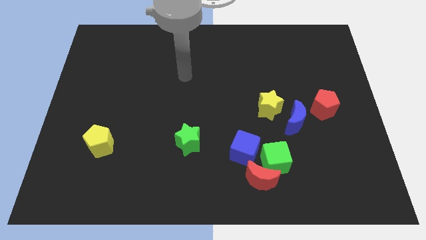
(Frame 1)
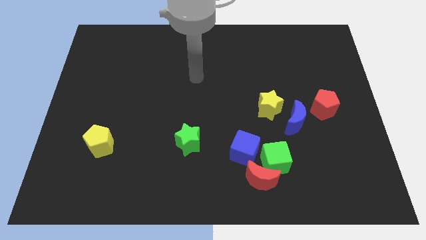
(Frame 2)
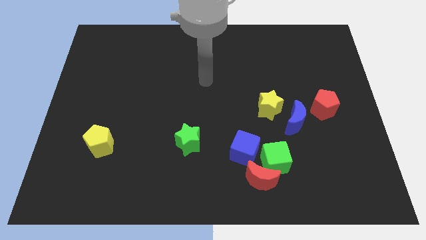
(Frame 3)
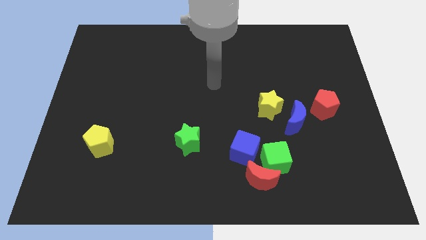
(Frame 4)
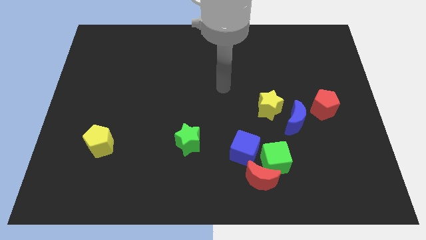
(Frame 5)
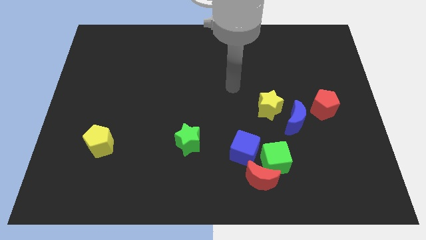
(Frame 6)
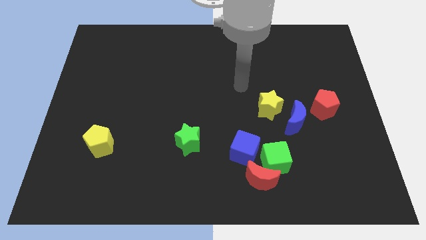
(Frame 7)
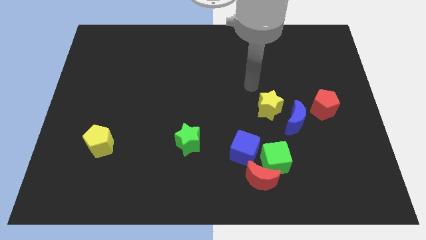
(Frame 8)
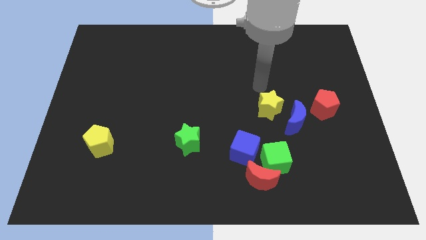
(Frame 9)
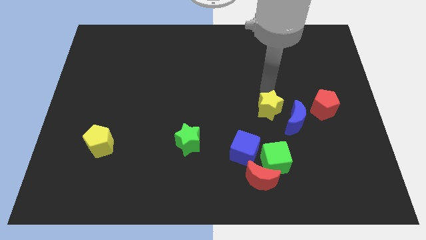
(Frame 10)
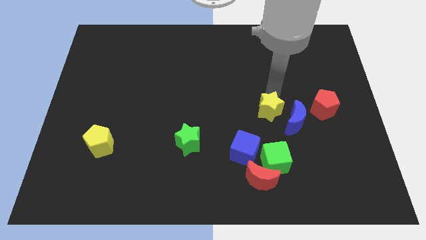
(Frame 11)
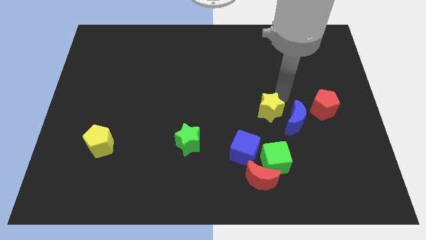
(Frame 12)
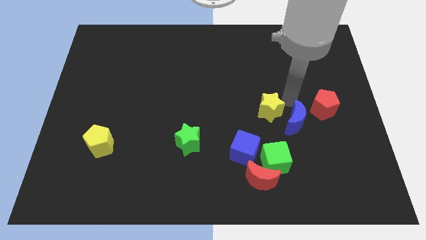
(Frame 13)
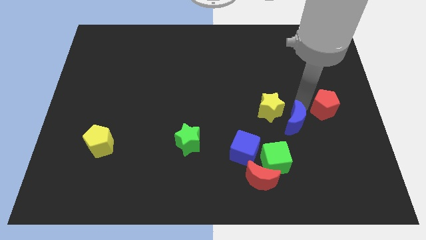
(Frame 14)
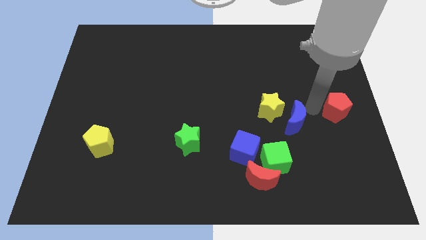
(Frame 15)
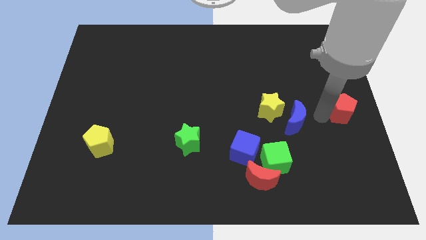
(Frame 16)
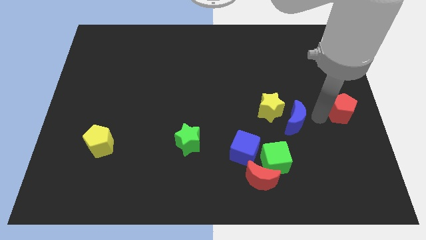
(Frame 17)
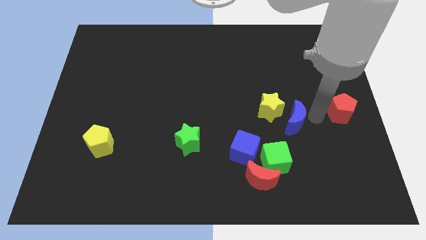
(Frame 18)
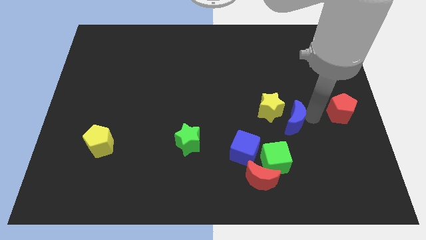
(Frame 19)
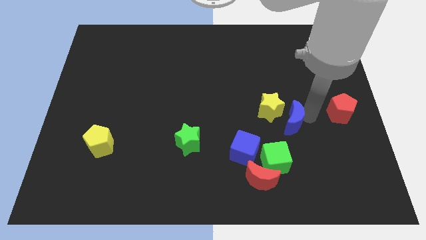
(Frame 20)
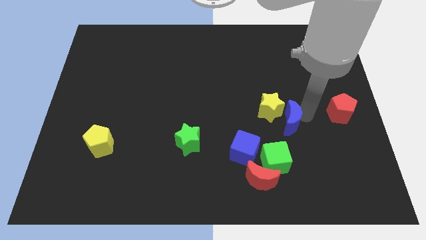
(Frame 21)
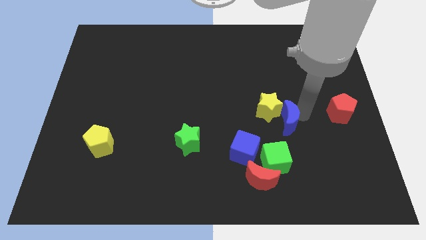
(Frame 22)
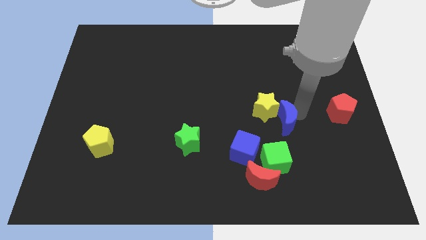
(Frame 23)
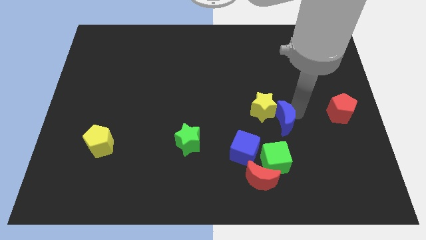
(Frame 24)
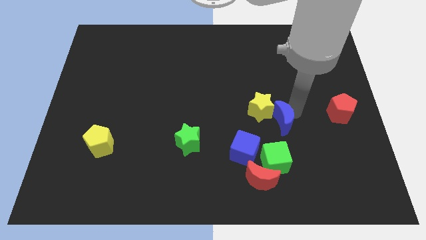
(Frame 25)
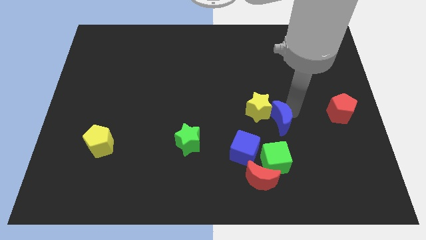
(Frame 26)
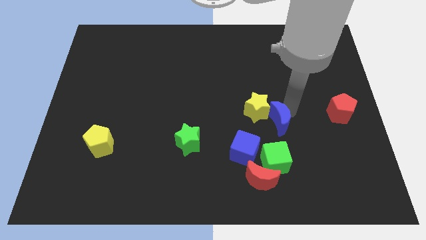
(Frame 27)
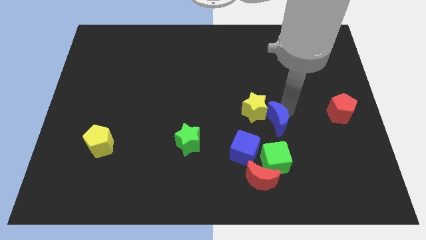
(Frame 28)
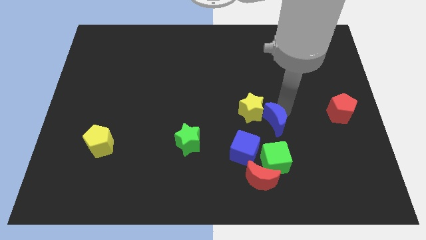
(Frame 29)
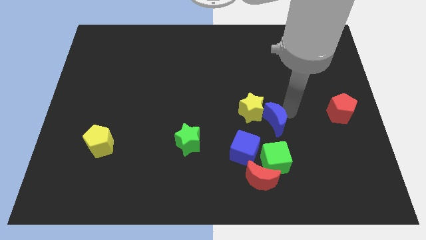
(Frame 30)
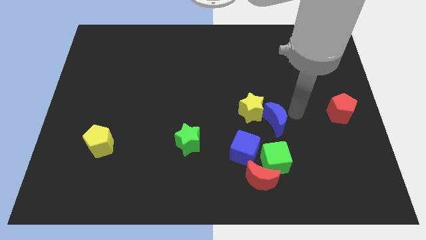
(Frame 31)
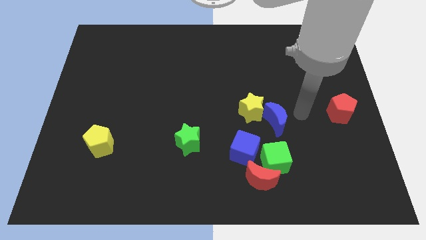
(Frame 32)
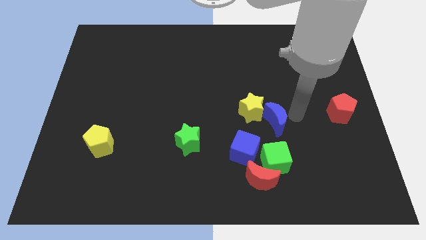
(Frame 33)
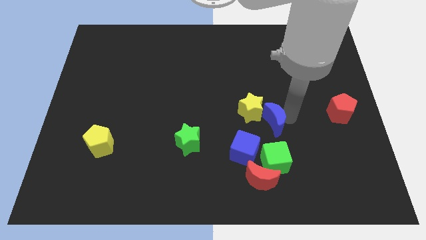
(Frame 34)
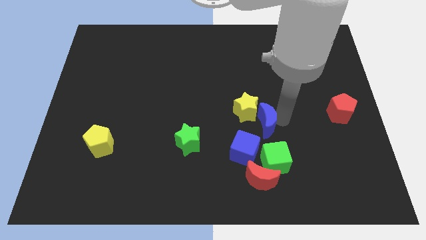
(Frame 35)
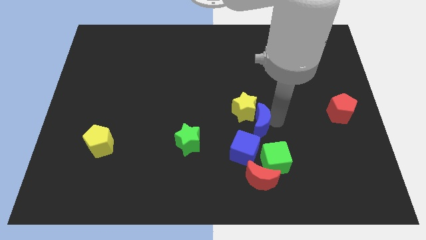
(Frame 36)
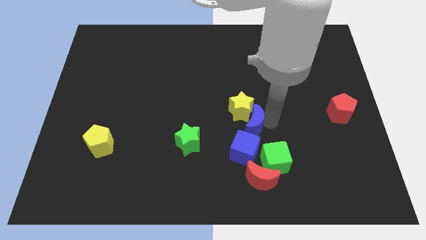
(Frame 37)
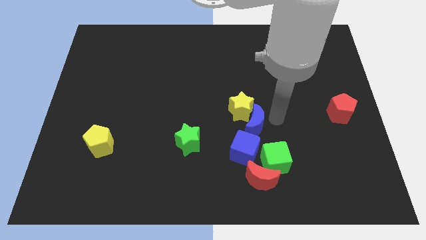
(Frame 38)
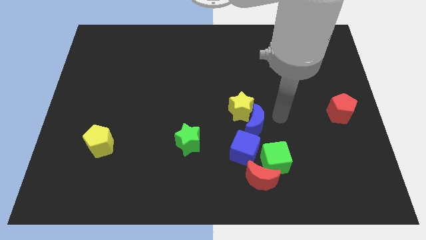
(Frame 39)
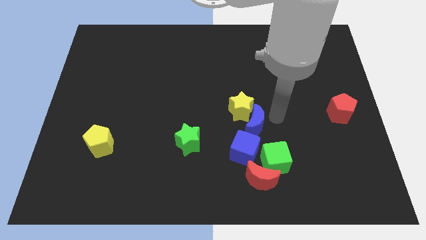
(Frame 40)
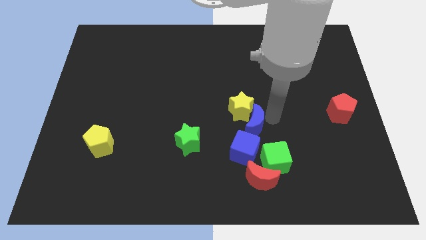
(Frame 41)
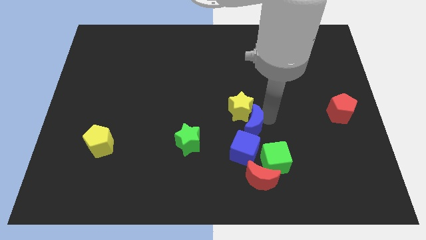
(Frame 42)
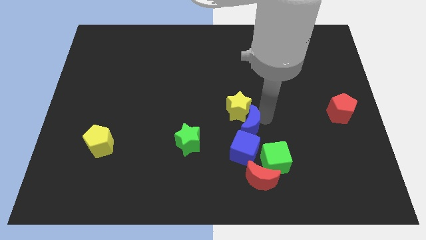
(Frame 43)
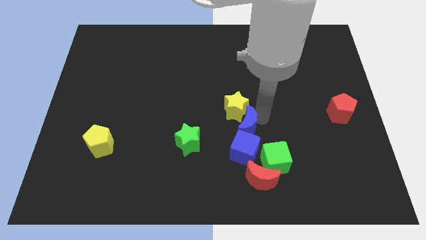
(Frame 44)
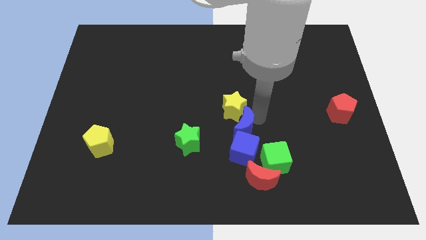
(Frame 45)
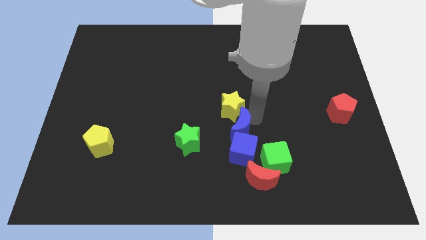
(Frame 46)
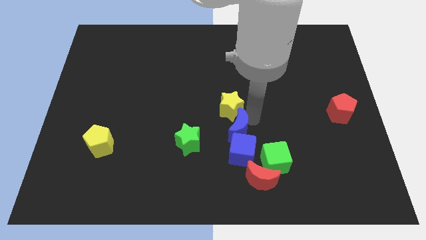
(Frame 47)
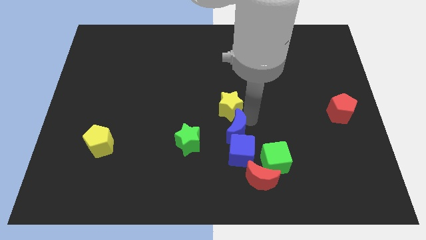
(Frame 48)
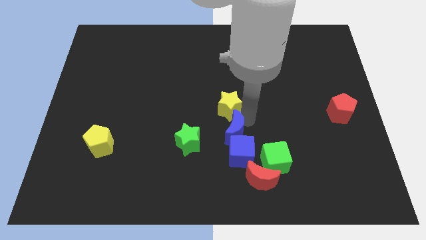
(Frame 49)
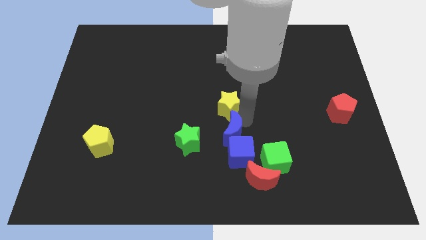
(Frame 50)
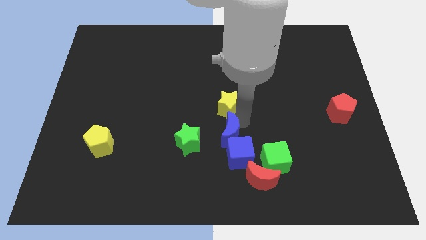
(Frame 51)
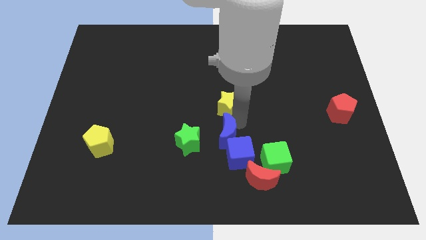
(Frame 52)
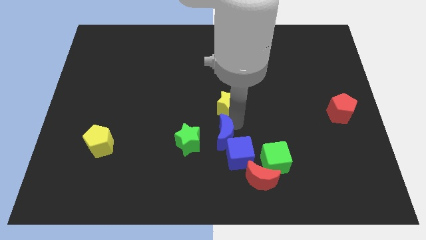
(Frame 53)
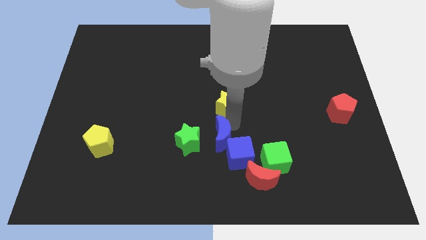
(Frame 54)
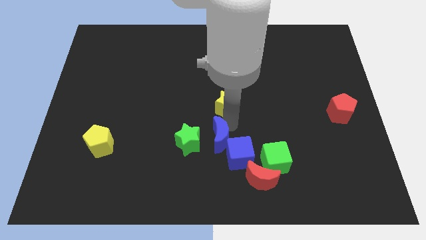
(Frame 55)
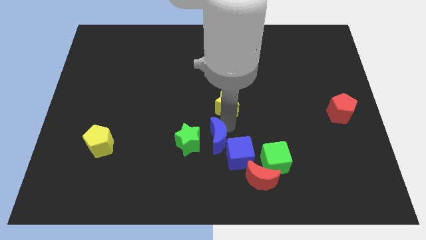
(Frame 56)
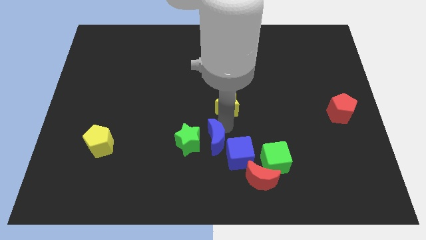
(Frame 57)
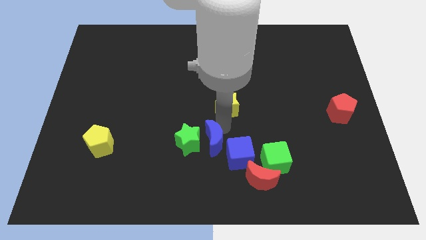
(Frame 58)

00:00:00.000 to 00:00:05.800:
slide the blue moon to the green star

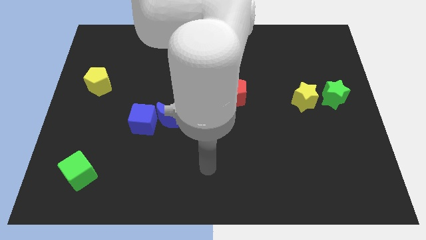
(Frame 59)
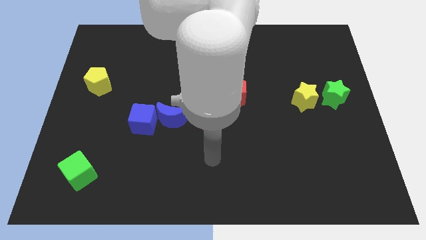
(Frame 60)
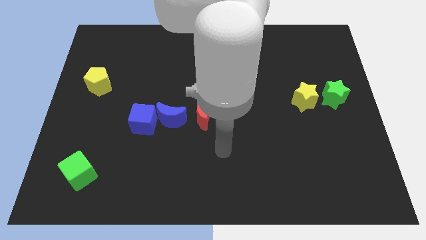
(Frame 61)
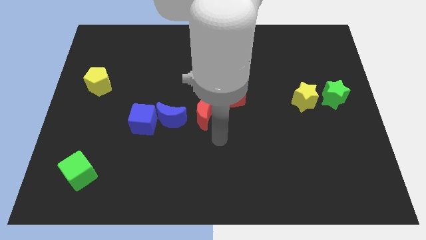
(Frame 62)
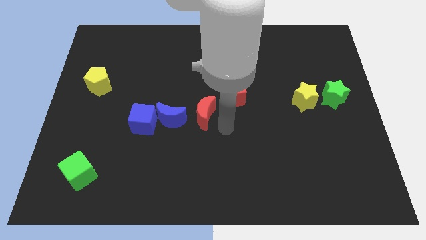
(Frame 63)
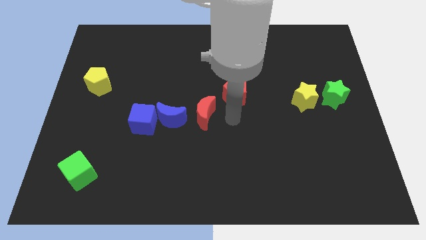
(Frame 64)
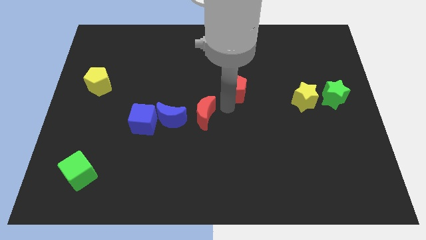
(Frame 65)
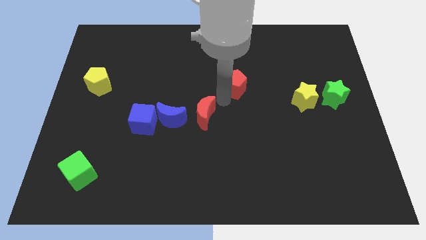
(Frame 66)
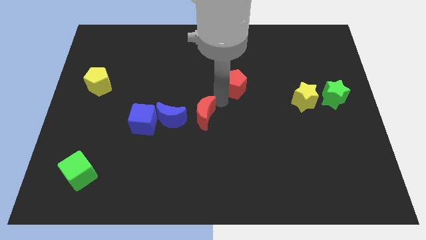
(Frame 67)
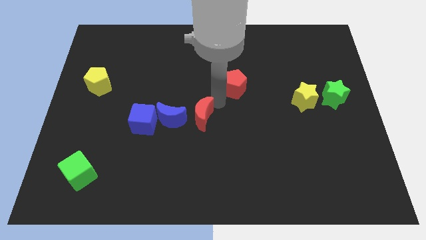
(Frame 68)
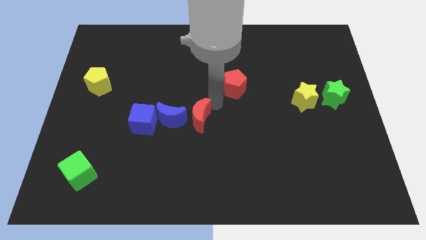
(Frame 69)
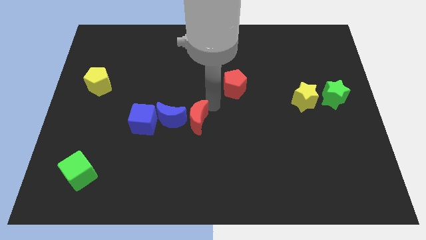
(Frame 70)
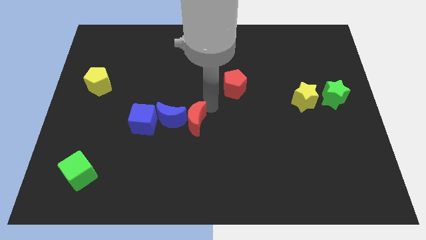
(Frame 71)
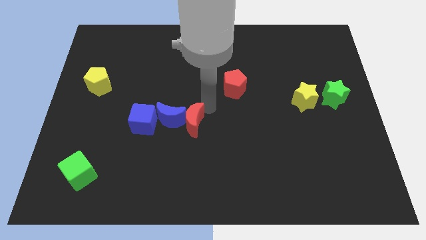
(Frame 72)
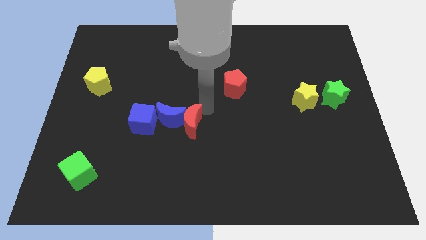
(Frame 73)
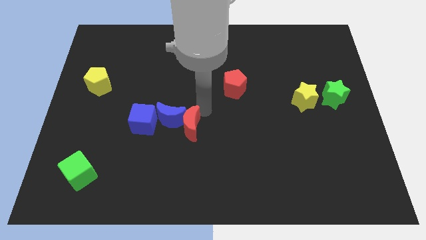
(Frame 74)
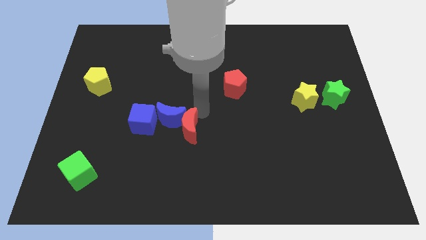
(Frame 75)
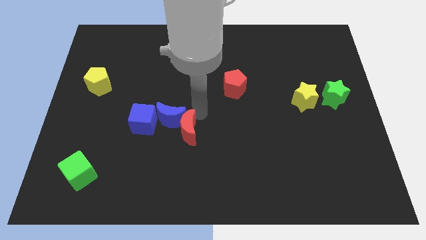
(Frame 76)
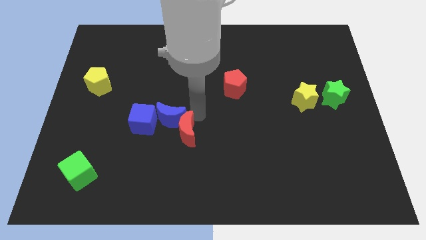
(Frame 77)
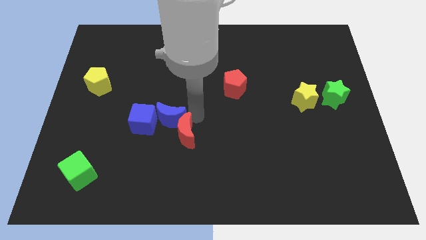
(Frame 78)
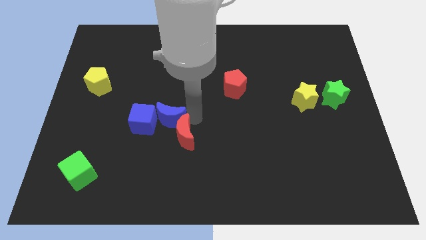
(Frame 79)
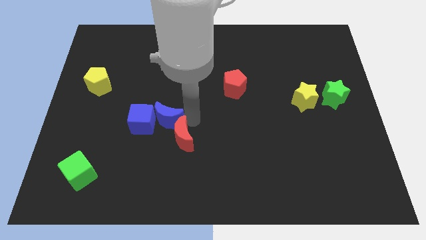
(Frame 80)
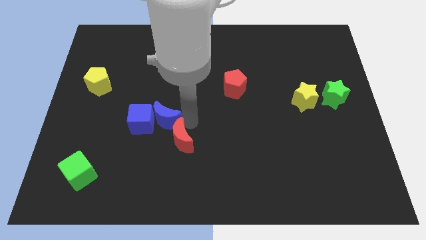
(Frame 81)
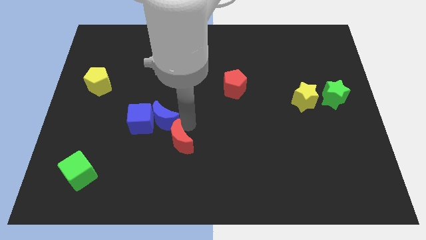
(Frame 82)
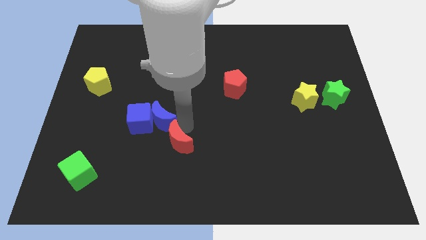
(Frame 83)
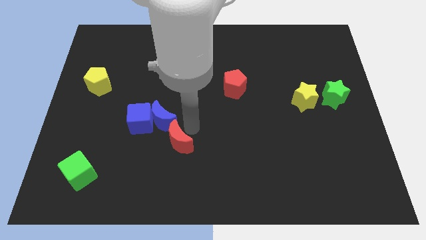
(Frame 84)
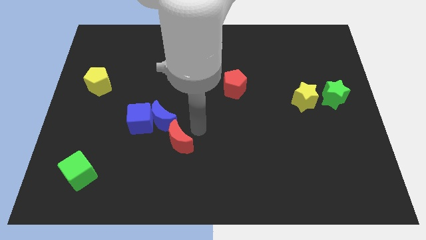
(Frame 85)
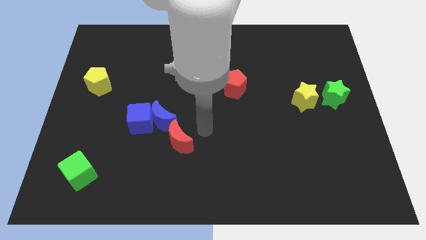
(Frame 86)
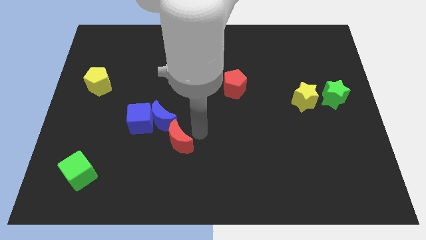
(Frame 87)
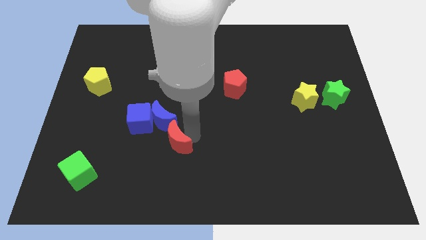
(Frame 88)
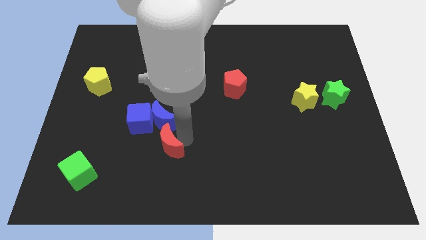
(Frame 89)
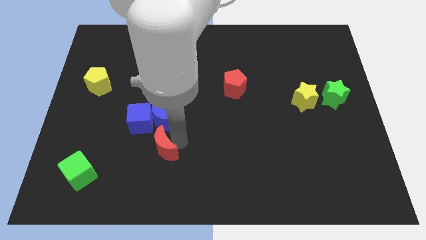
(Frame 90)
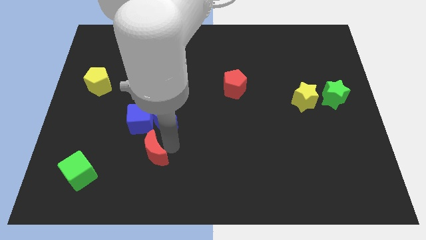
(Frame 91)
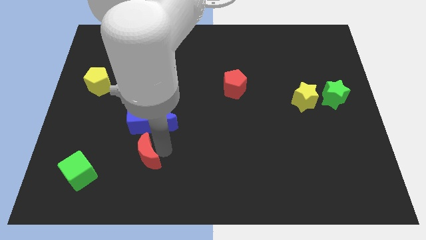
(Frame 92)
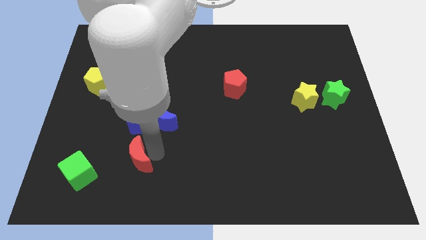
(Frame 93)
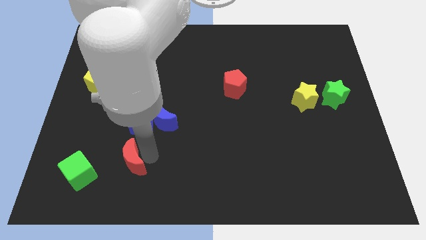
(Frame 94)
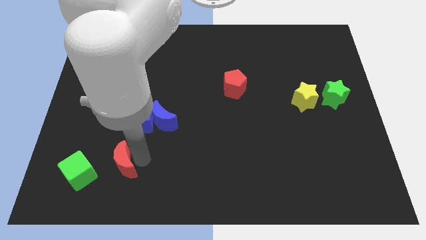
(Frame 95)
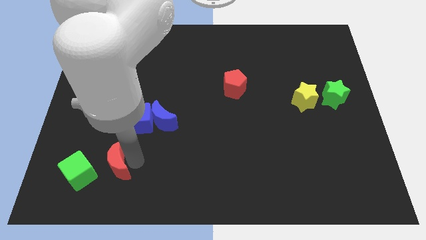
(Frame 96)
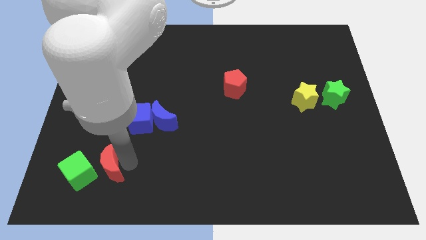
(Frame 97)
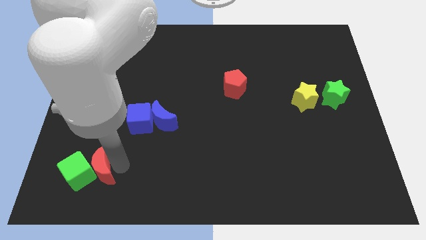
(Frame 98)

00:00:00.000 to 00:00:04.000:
move the red moon to the green cube
